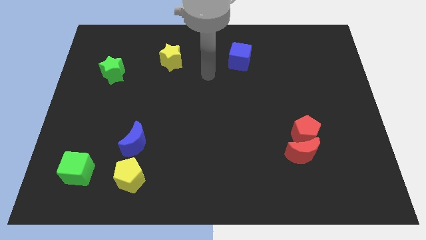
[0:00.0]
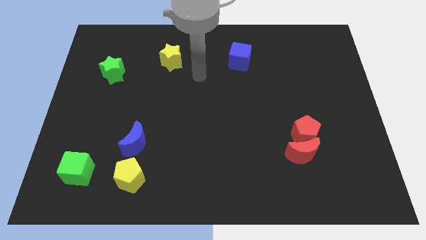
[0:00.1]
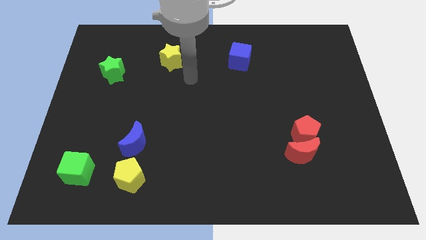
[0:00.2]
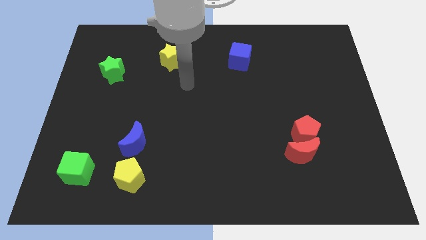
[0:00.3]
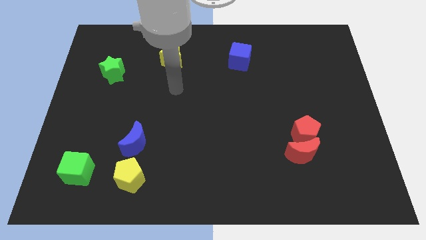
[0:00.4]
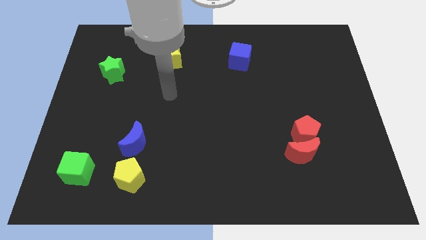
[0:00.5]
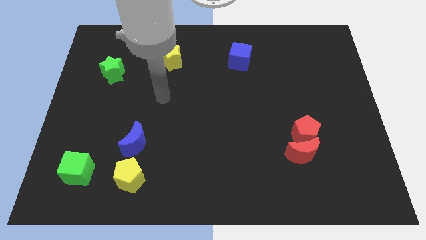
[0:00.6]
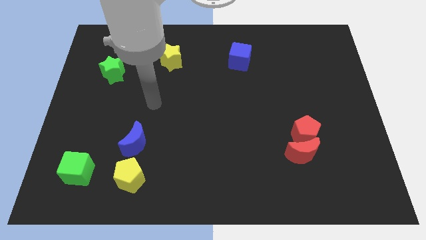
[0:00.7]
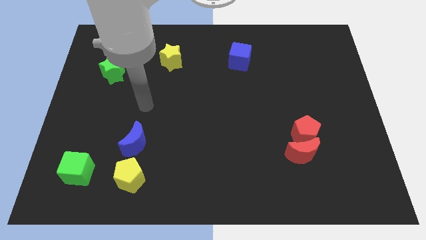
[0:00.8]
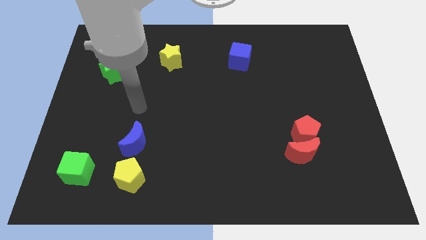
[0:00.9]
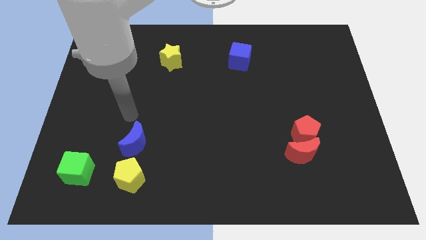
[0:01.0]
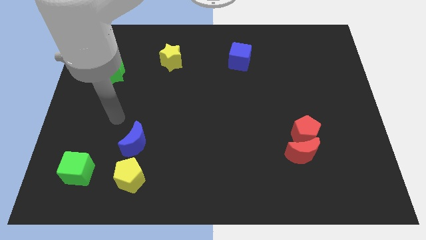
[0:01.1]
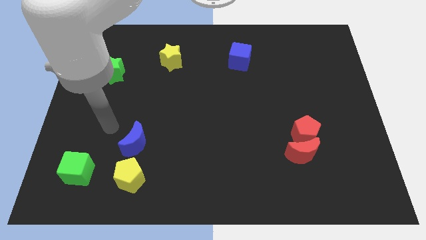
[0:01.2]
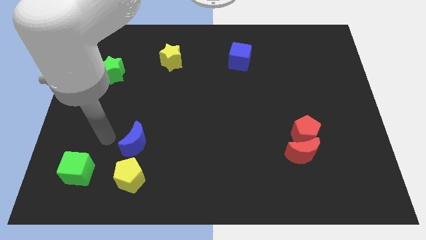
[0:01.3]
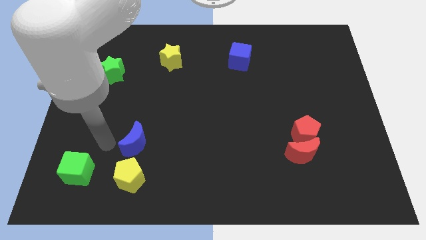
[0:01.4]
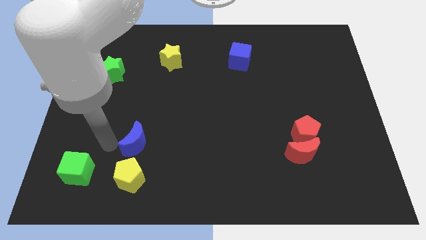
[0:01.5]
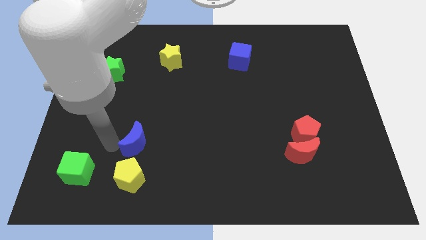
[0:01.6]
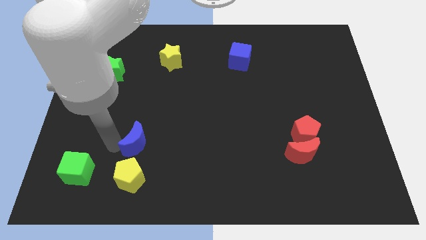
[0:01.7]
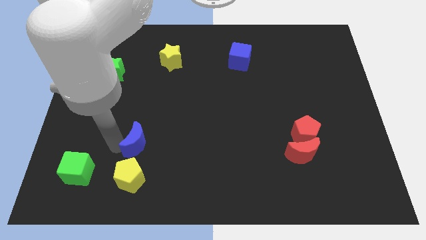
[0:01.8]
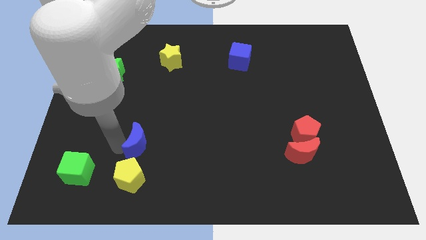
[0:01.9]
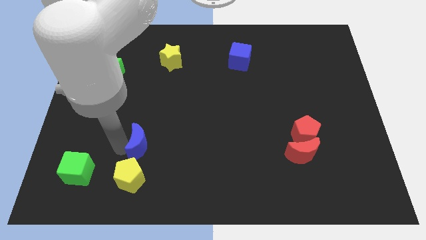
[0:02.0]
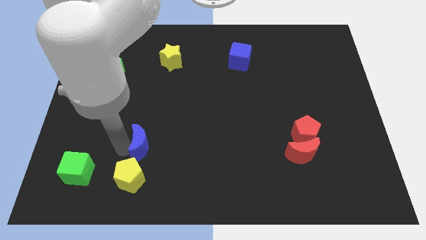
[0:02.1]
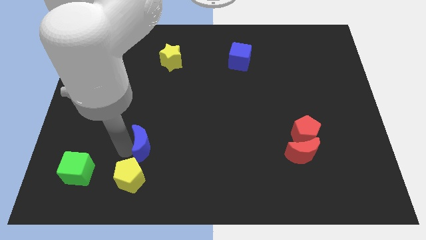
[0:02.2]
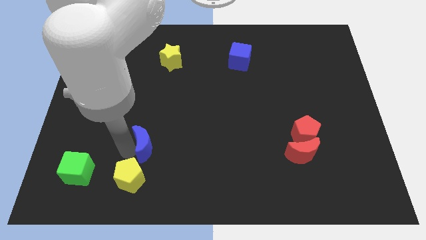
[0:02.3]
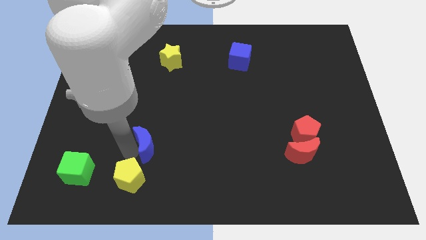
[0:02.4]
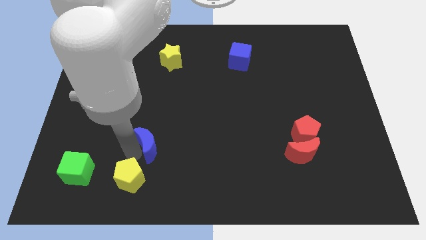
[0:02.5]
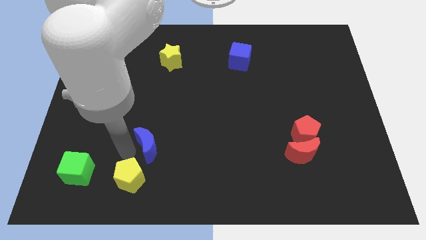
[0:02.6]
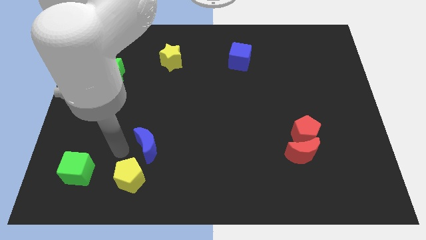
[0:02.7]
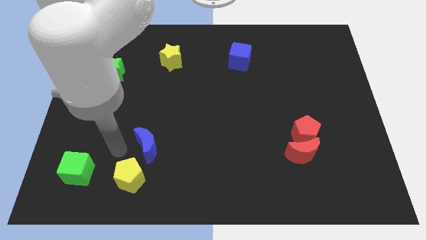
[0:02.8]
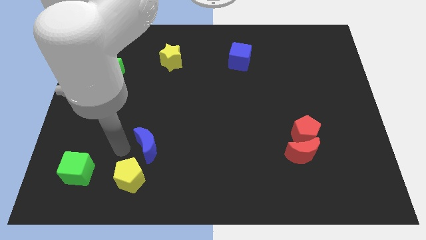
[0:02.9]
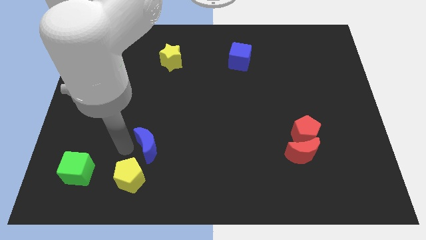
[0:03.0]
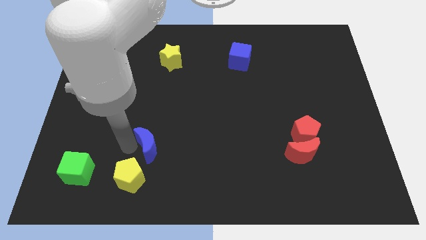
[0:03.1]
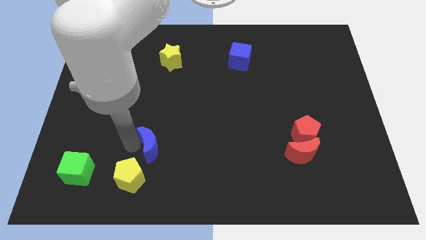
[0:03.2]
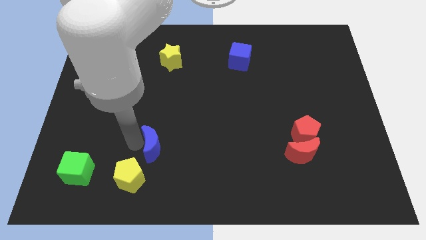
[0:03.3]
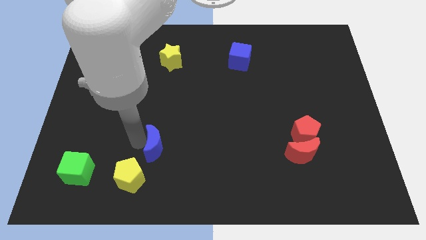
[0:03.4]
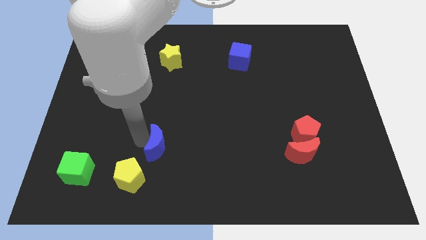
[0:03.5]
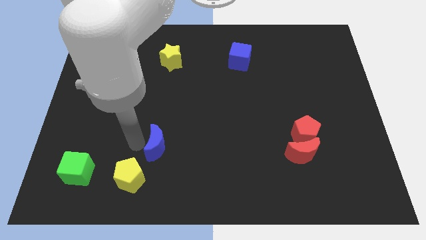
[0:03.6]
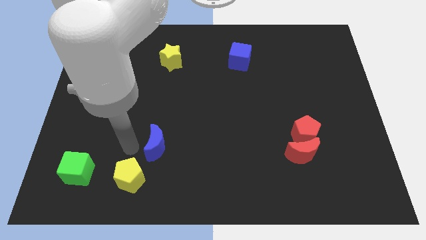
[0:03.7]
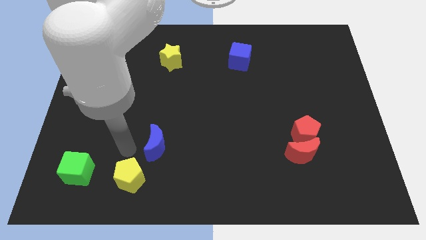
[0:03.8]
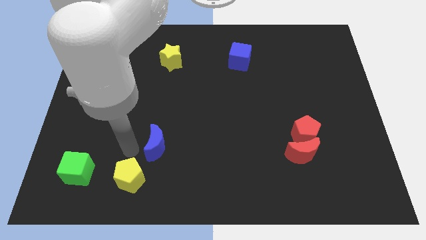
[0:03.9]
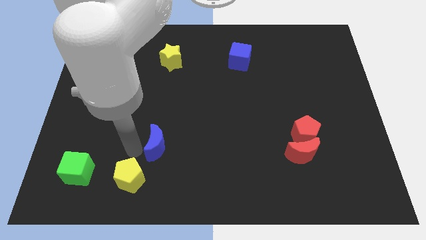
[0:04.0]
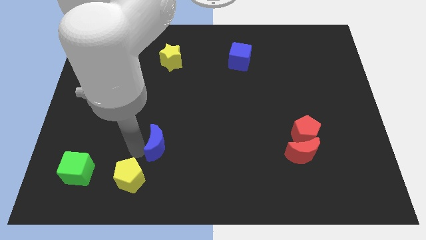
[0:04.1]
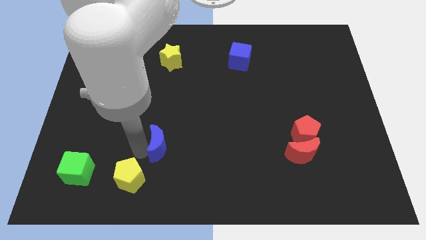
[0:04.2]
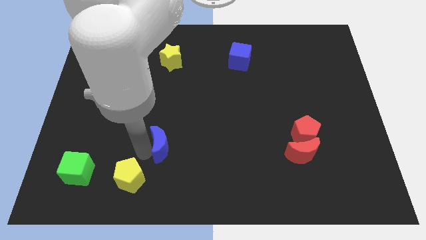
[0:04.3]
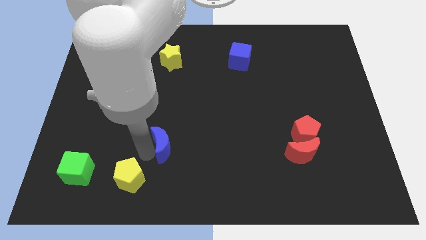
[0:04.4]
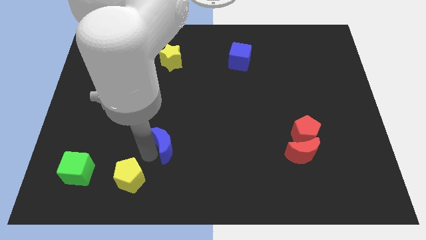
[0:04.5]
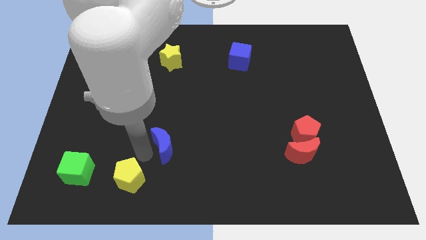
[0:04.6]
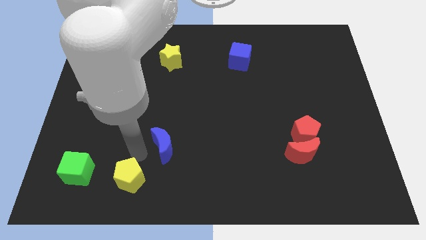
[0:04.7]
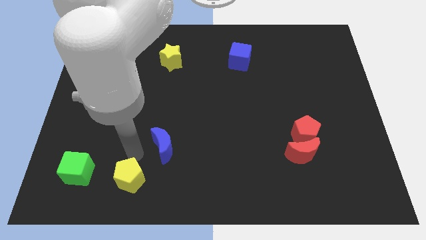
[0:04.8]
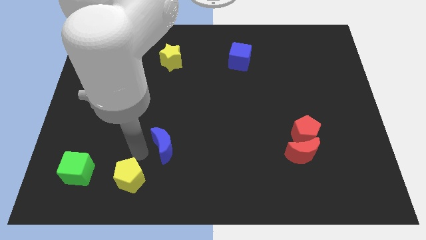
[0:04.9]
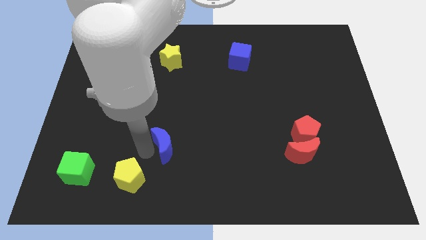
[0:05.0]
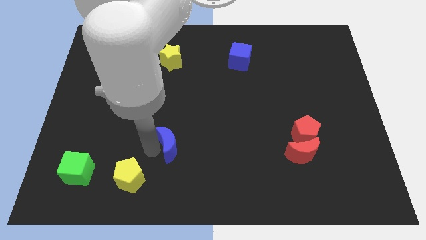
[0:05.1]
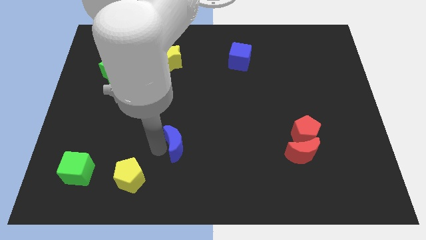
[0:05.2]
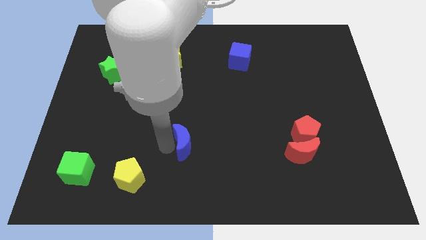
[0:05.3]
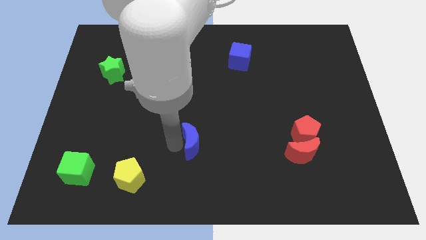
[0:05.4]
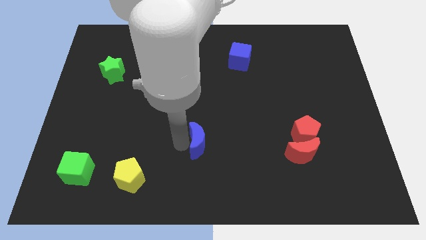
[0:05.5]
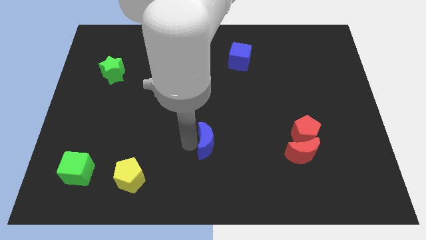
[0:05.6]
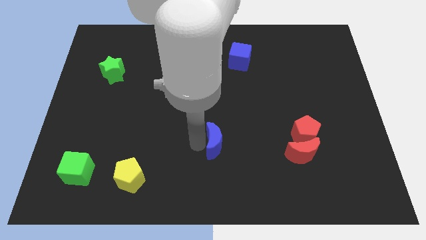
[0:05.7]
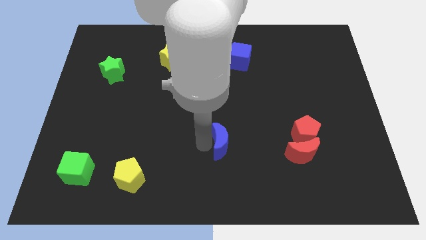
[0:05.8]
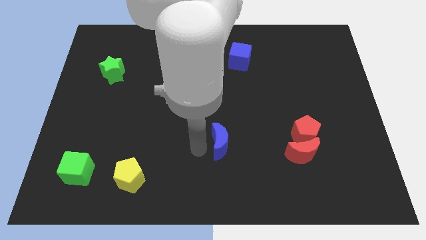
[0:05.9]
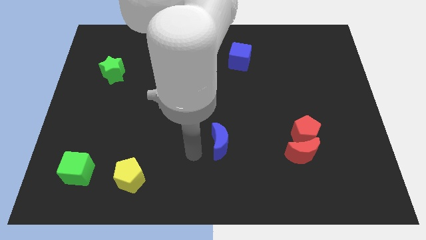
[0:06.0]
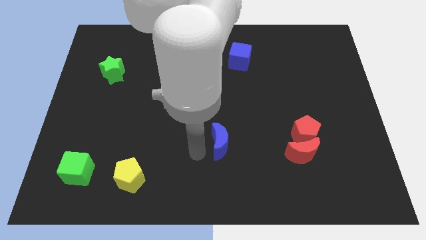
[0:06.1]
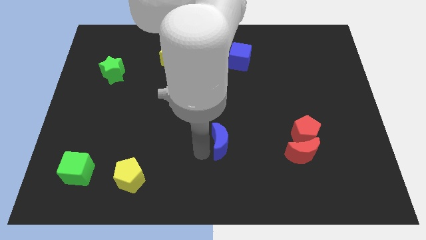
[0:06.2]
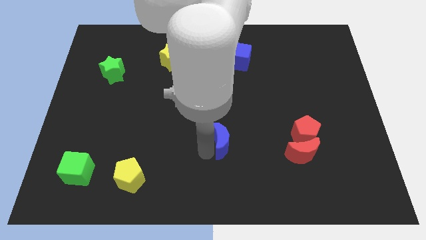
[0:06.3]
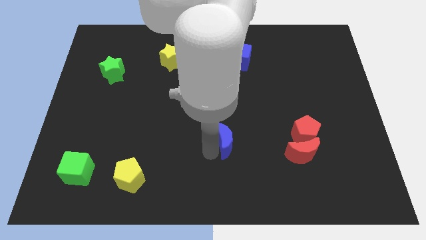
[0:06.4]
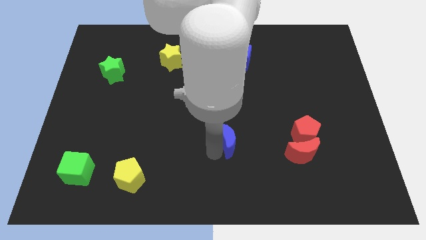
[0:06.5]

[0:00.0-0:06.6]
push the blue moon to the right

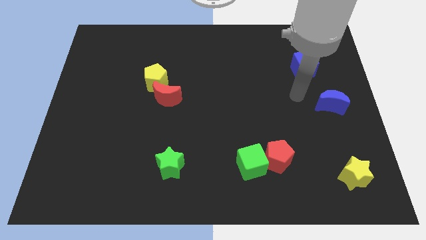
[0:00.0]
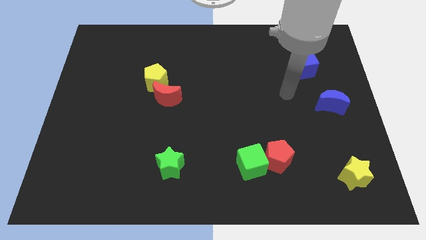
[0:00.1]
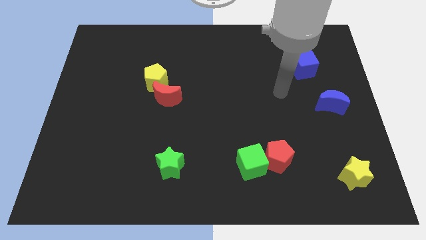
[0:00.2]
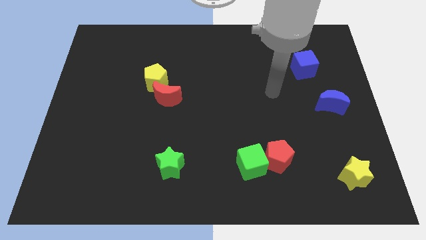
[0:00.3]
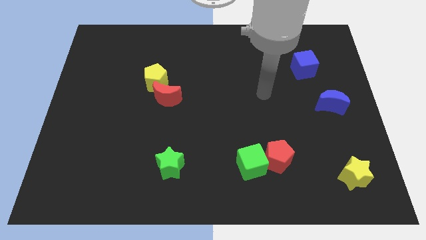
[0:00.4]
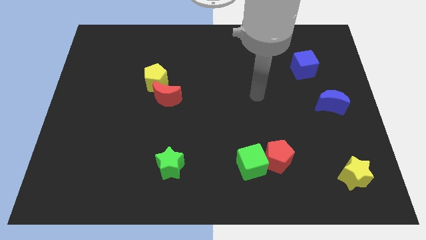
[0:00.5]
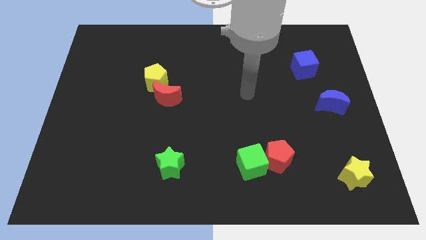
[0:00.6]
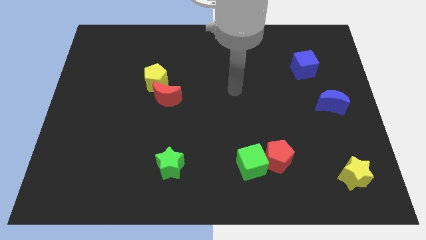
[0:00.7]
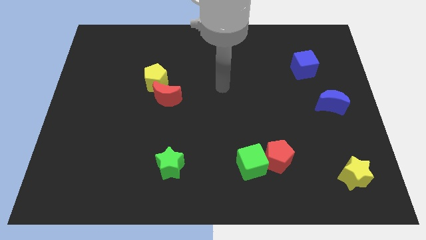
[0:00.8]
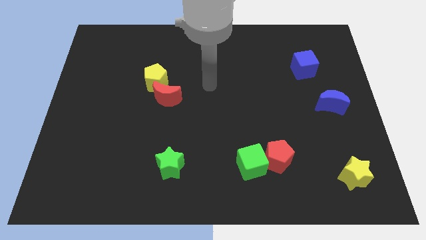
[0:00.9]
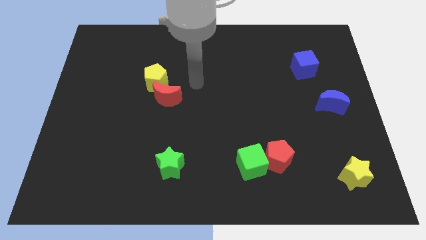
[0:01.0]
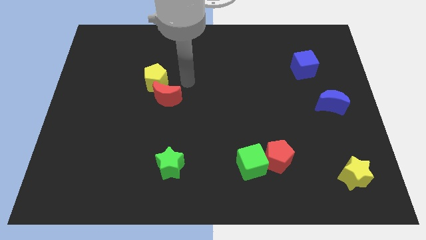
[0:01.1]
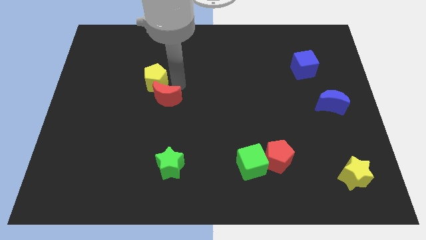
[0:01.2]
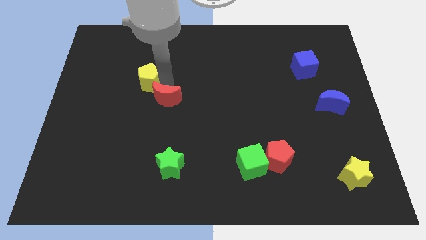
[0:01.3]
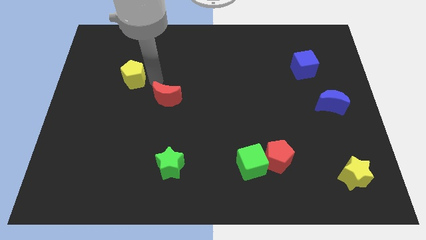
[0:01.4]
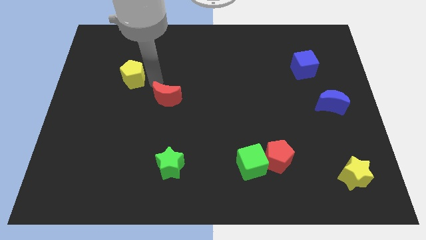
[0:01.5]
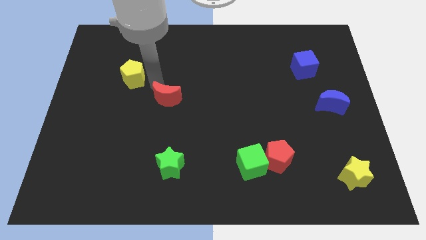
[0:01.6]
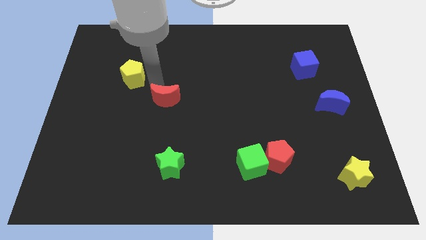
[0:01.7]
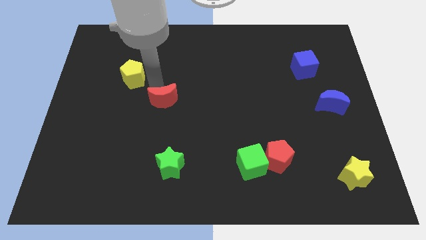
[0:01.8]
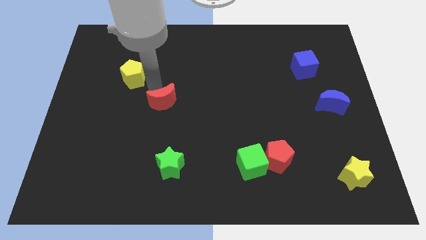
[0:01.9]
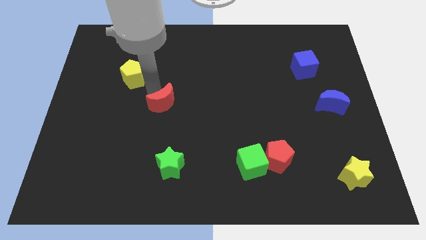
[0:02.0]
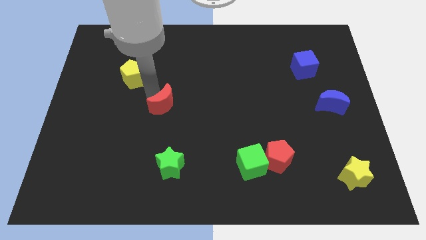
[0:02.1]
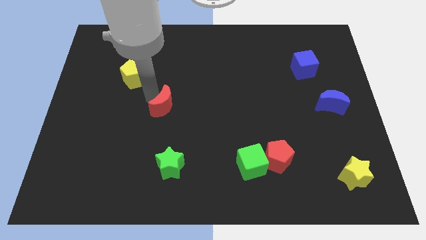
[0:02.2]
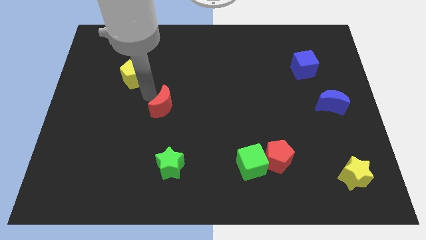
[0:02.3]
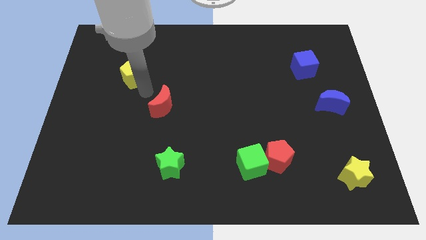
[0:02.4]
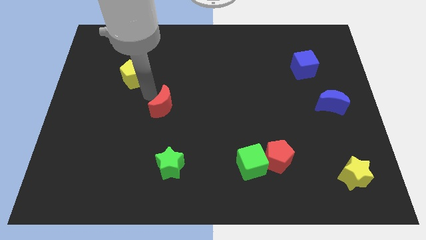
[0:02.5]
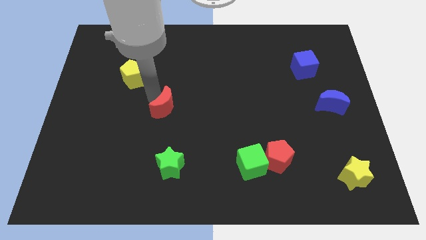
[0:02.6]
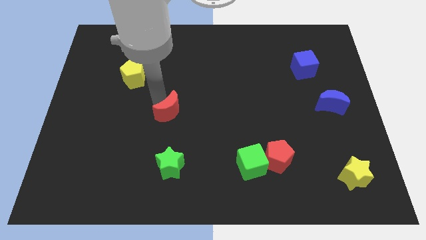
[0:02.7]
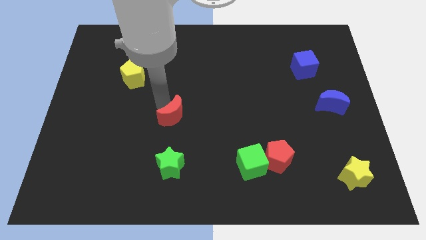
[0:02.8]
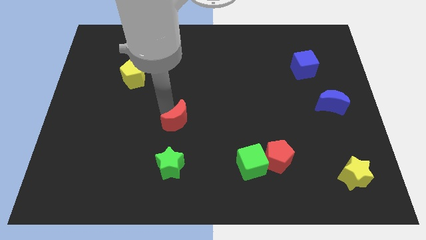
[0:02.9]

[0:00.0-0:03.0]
slightly slide the red moon down and then to the right
